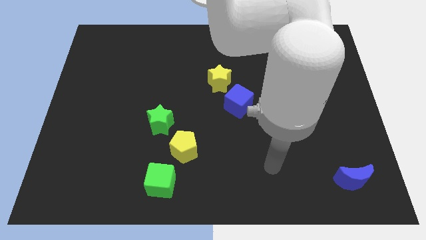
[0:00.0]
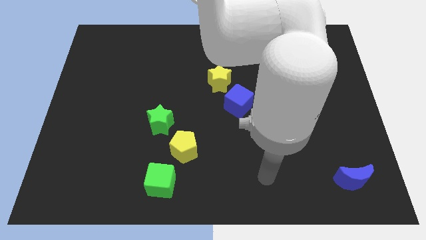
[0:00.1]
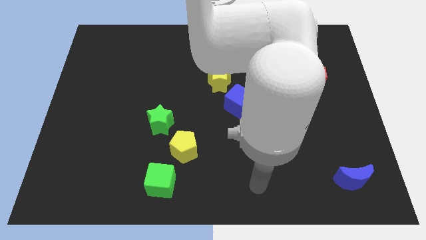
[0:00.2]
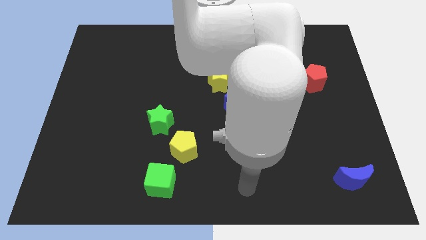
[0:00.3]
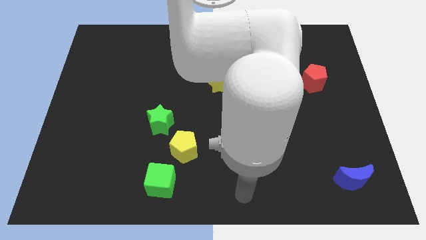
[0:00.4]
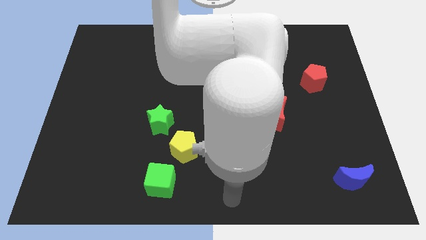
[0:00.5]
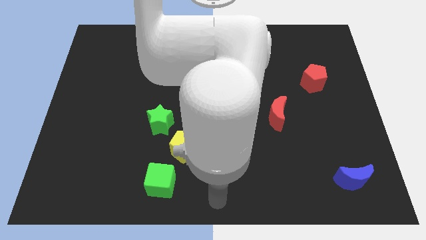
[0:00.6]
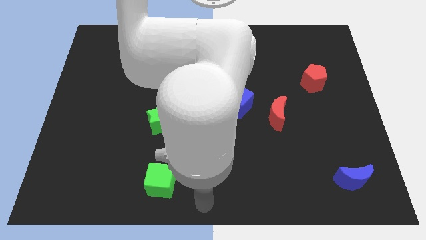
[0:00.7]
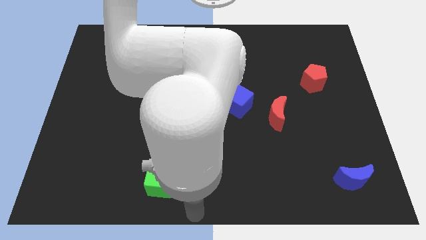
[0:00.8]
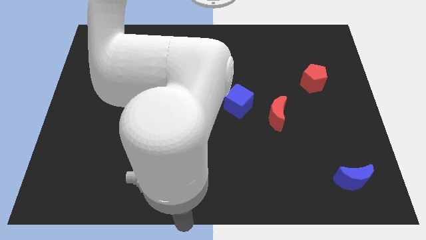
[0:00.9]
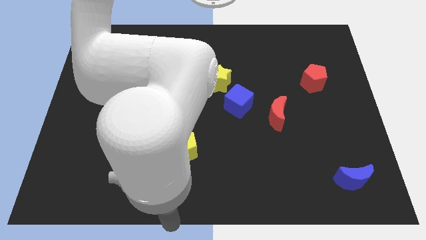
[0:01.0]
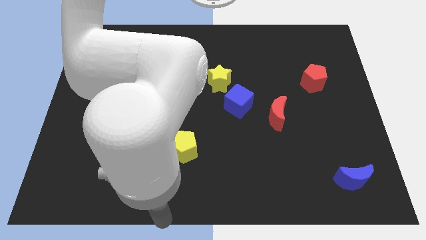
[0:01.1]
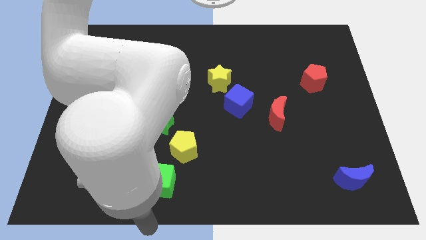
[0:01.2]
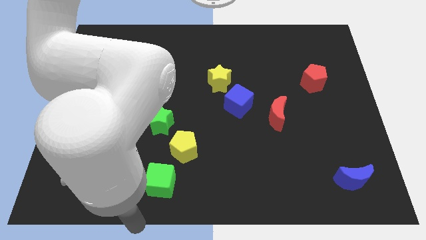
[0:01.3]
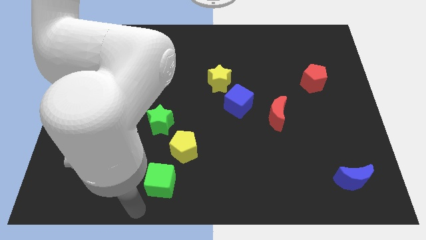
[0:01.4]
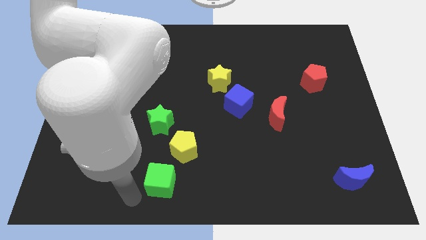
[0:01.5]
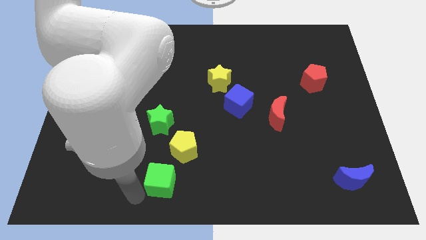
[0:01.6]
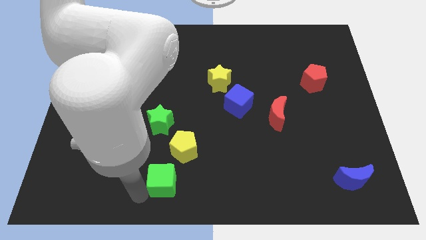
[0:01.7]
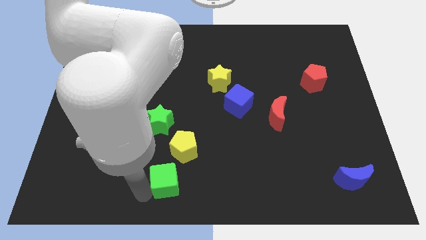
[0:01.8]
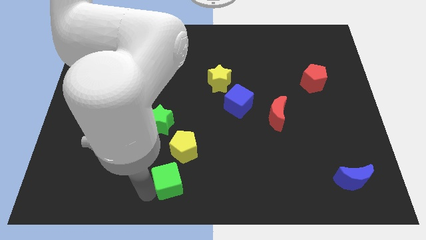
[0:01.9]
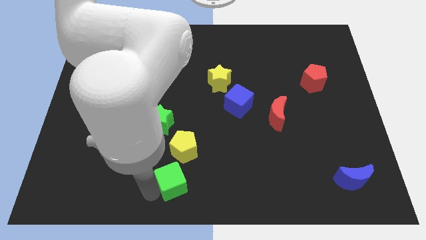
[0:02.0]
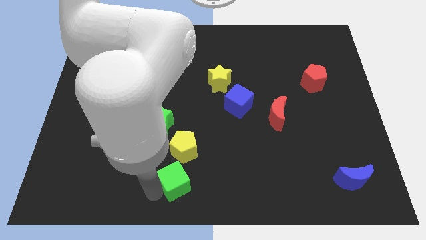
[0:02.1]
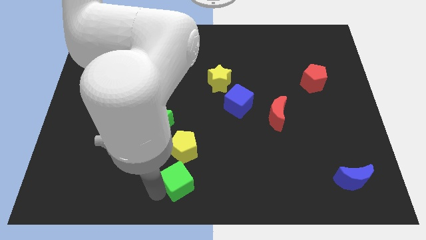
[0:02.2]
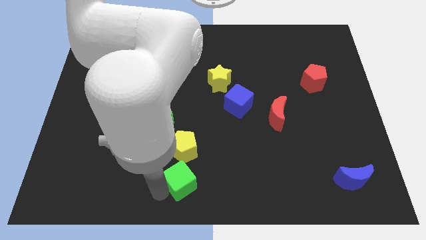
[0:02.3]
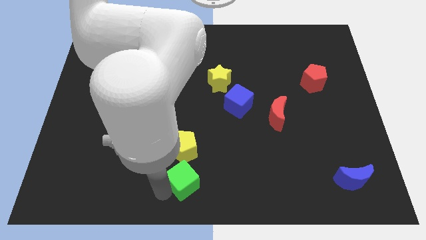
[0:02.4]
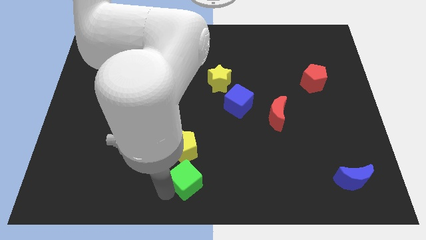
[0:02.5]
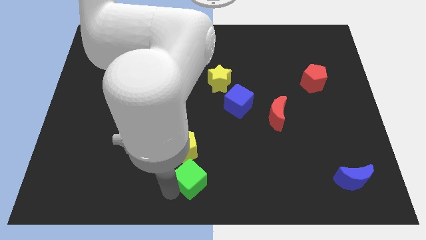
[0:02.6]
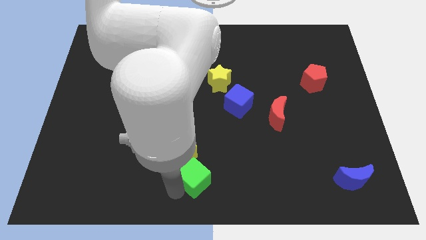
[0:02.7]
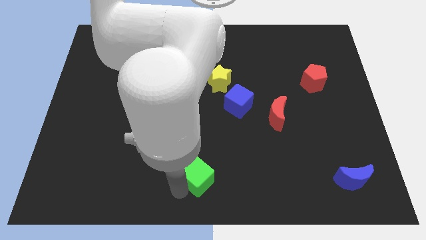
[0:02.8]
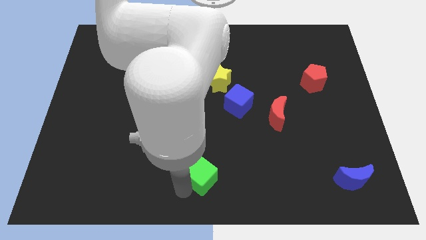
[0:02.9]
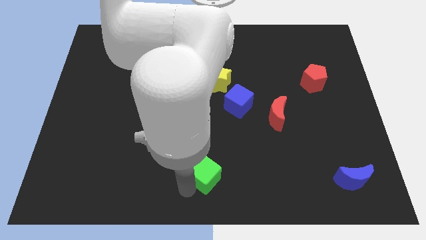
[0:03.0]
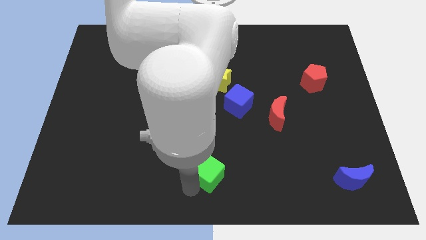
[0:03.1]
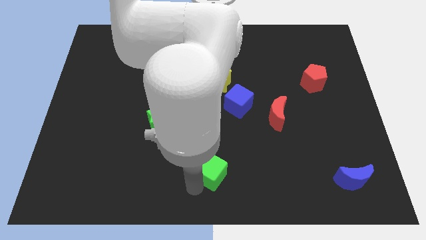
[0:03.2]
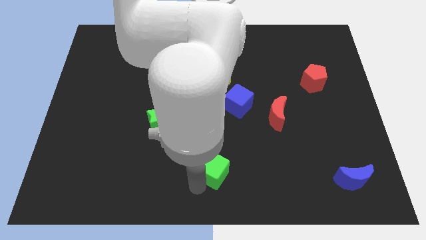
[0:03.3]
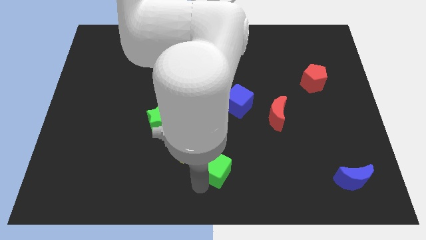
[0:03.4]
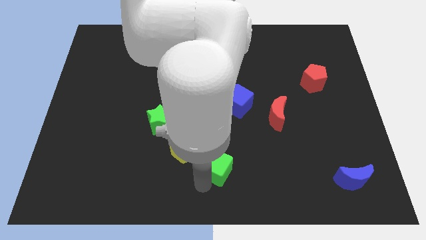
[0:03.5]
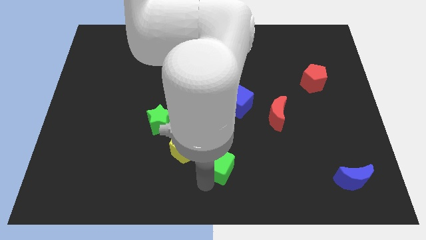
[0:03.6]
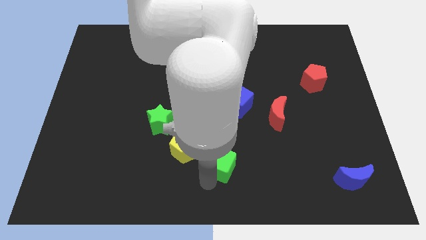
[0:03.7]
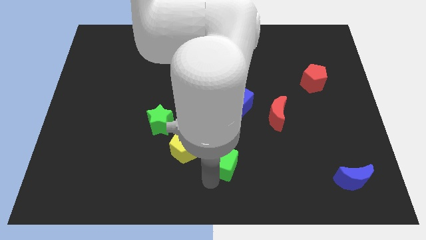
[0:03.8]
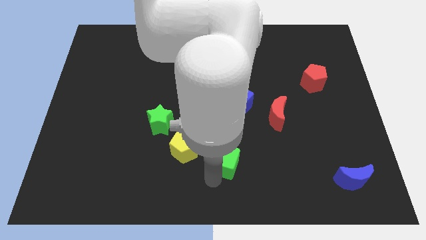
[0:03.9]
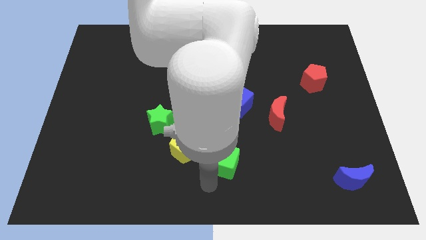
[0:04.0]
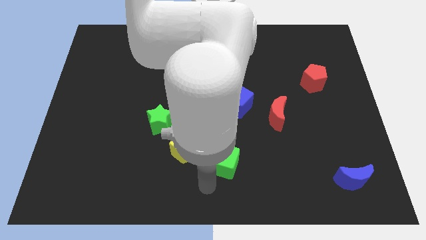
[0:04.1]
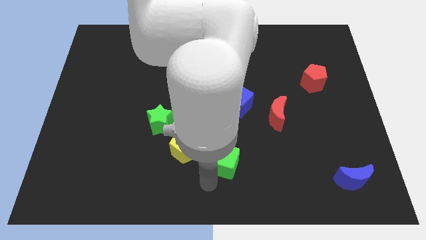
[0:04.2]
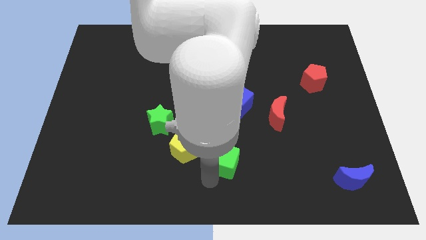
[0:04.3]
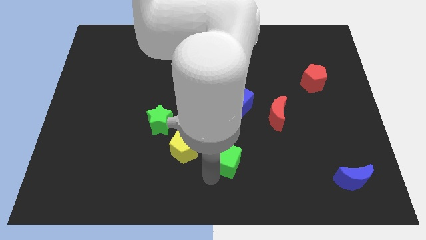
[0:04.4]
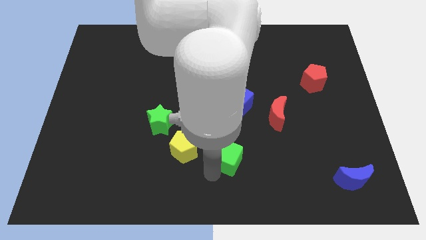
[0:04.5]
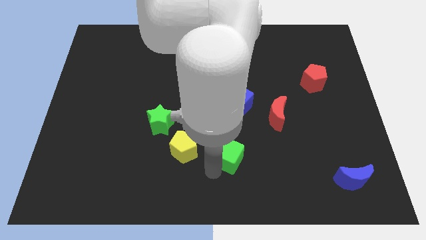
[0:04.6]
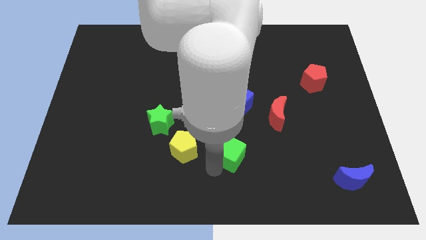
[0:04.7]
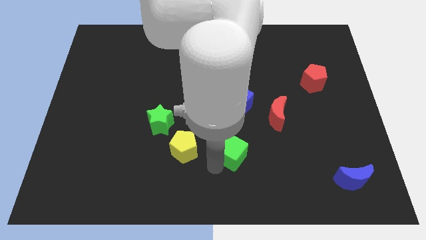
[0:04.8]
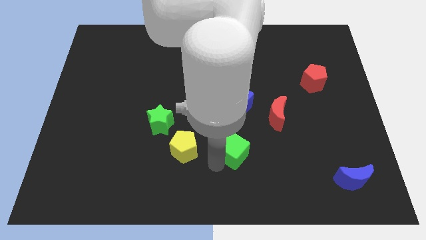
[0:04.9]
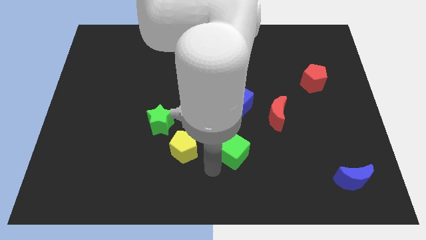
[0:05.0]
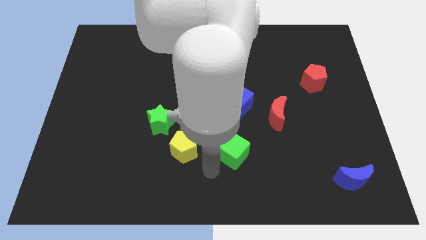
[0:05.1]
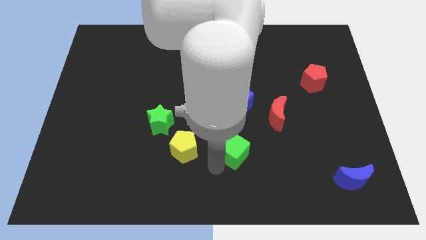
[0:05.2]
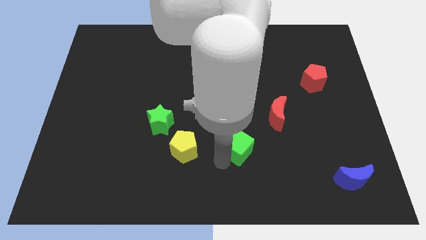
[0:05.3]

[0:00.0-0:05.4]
put the green cube diagonally down and to the left of the red moon

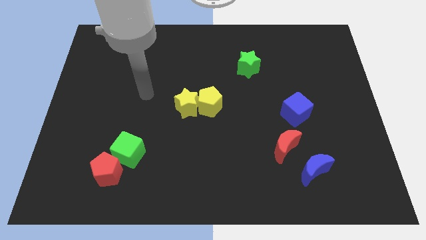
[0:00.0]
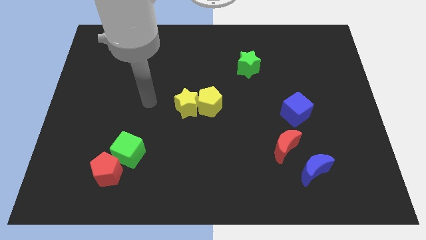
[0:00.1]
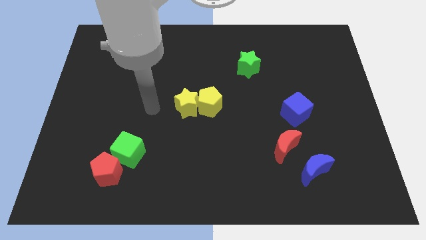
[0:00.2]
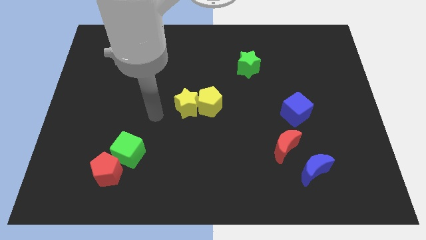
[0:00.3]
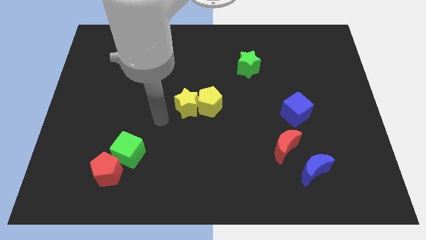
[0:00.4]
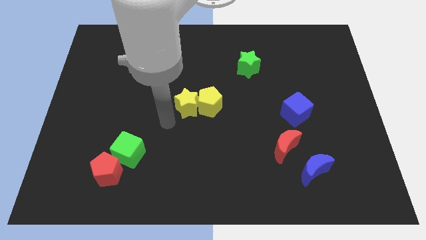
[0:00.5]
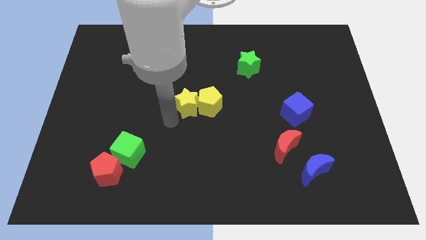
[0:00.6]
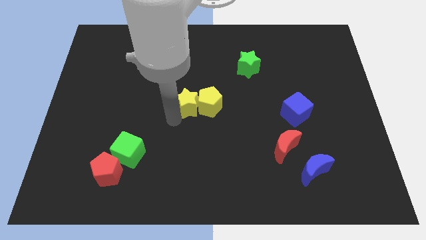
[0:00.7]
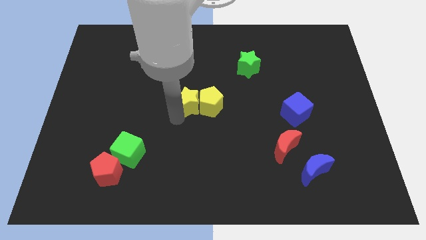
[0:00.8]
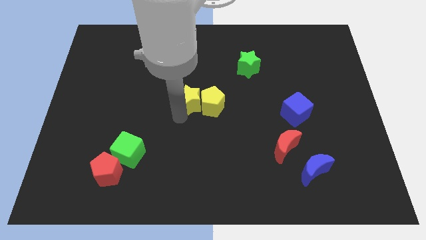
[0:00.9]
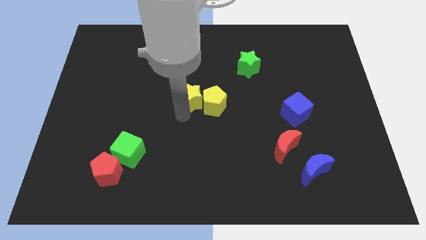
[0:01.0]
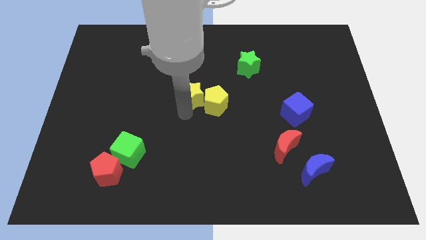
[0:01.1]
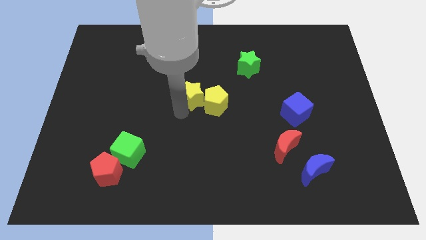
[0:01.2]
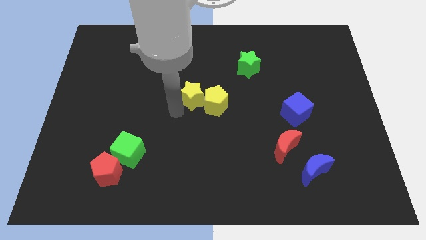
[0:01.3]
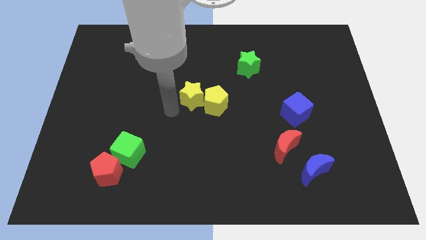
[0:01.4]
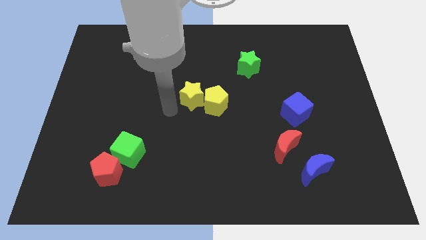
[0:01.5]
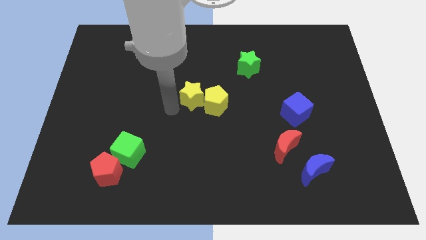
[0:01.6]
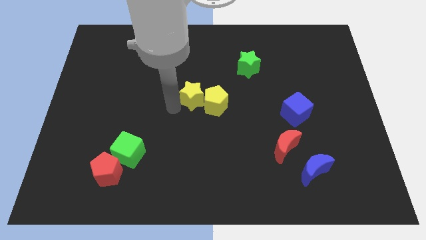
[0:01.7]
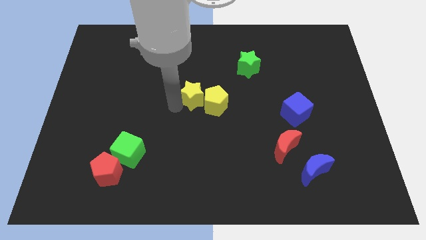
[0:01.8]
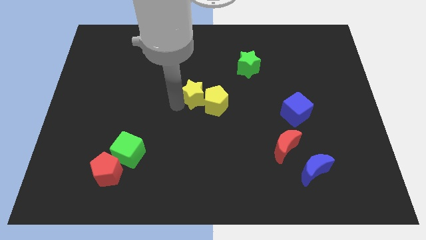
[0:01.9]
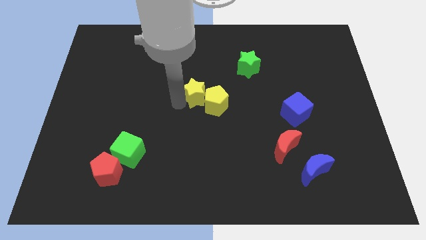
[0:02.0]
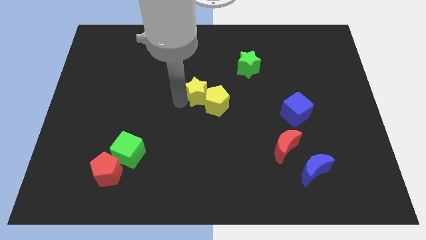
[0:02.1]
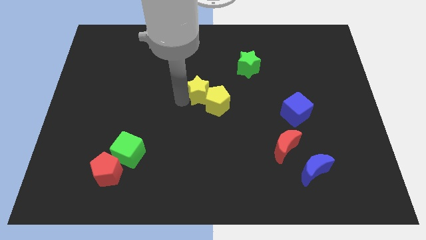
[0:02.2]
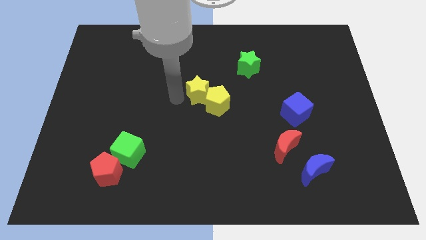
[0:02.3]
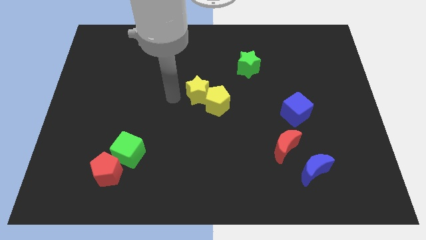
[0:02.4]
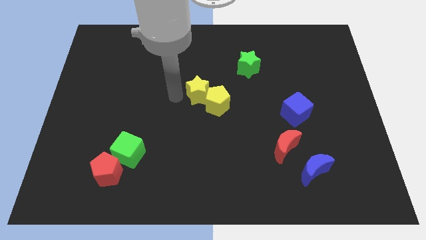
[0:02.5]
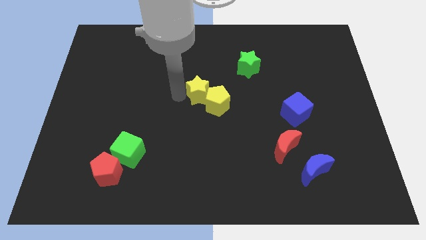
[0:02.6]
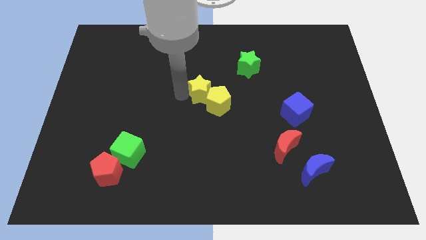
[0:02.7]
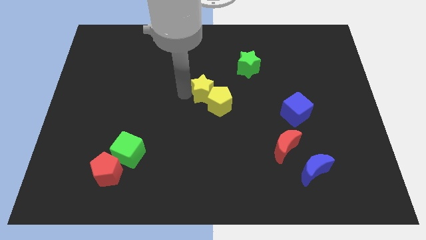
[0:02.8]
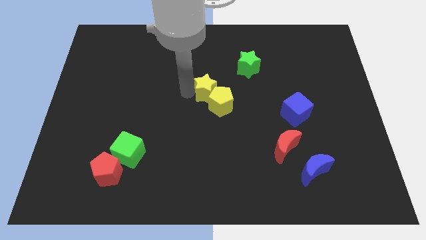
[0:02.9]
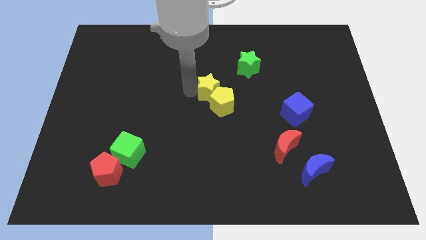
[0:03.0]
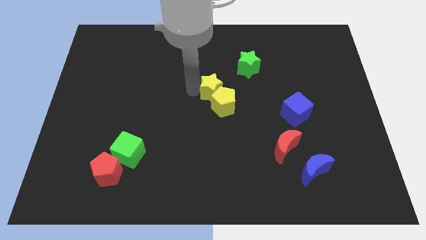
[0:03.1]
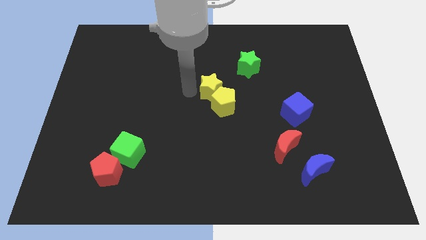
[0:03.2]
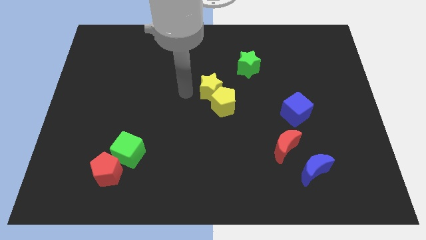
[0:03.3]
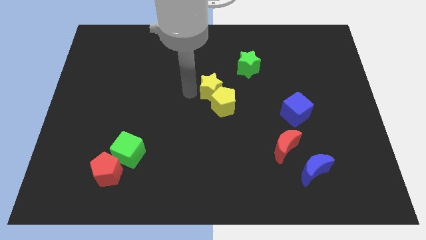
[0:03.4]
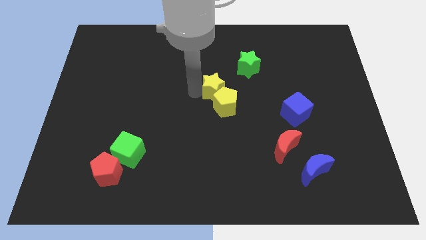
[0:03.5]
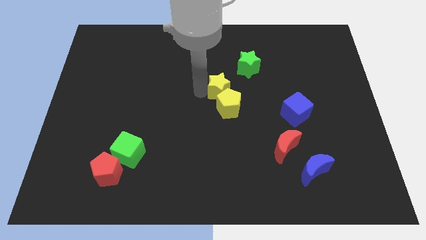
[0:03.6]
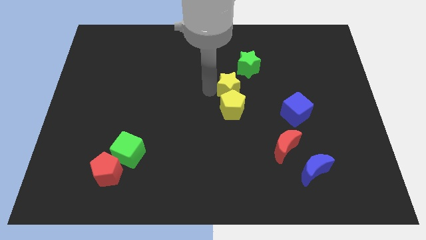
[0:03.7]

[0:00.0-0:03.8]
slide the yellow star to the bottom side of the green star
